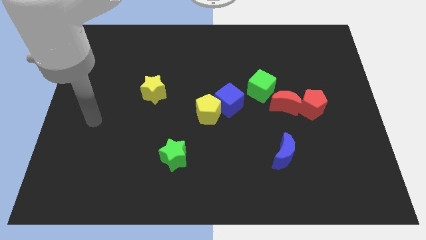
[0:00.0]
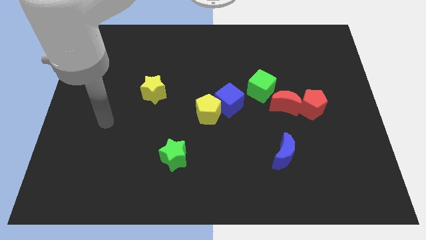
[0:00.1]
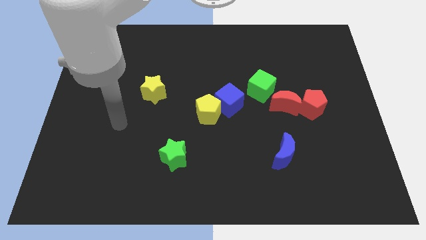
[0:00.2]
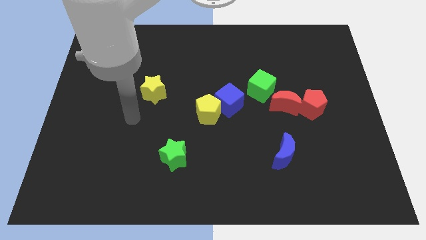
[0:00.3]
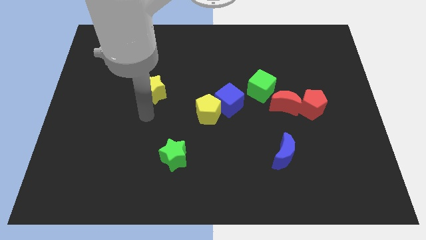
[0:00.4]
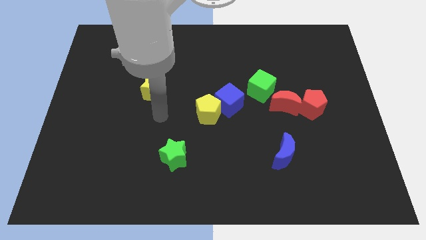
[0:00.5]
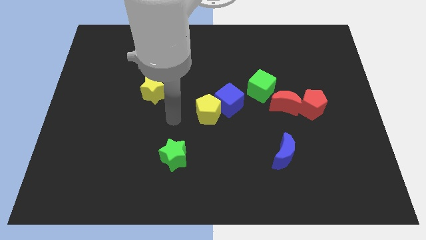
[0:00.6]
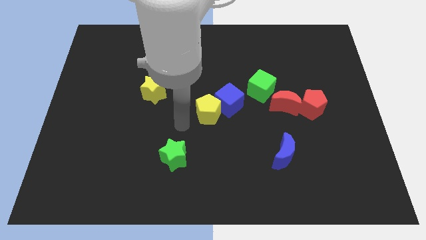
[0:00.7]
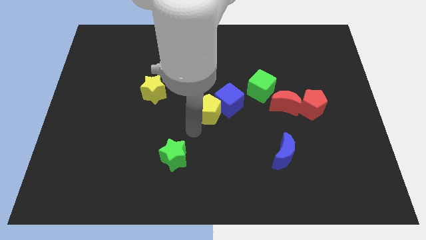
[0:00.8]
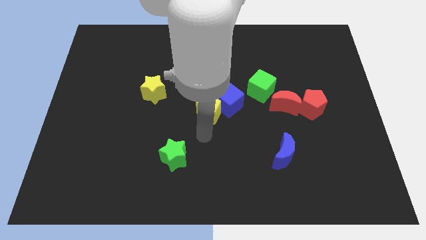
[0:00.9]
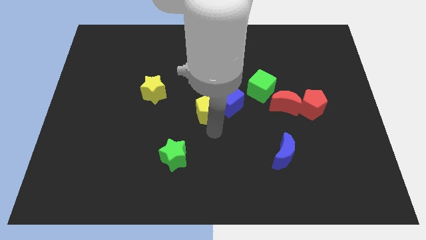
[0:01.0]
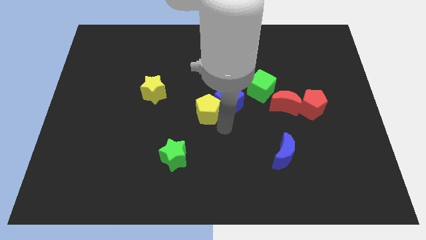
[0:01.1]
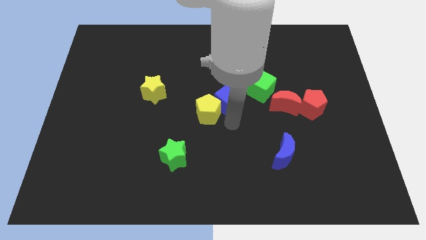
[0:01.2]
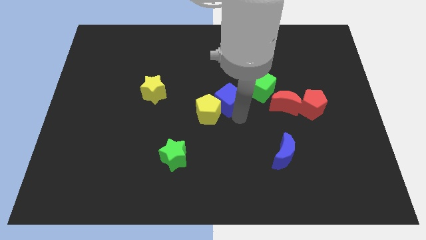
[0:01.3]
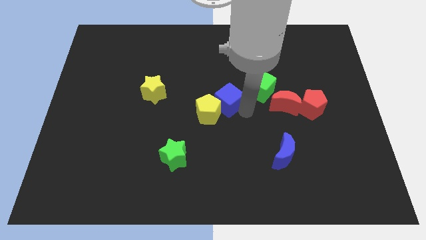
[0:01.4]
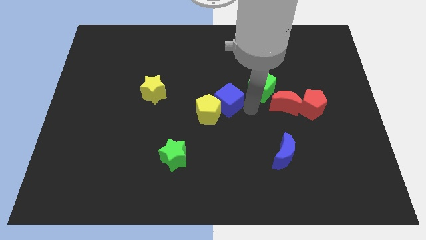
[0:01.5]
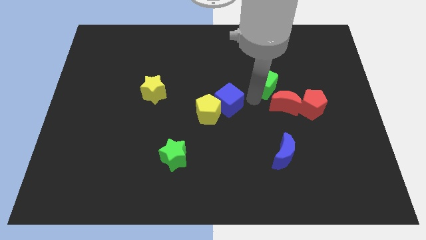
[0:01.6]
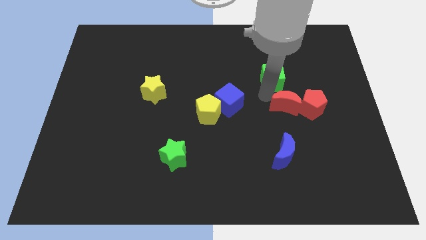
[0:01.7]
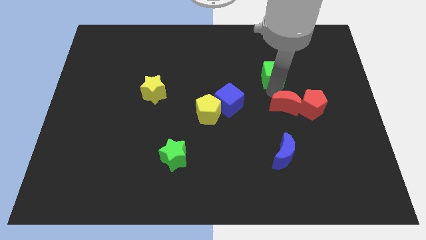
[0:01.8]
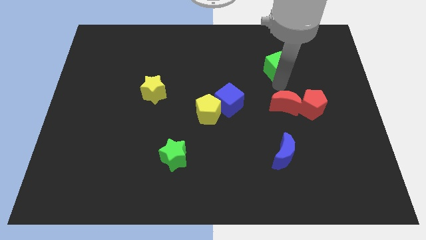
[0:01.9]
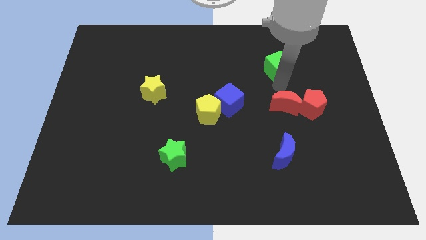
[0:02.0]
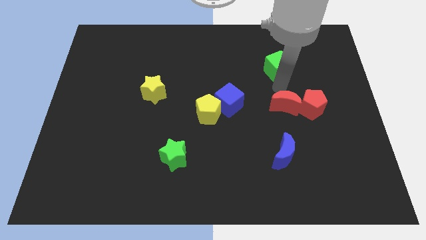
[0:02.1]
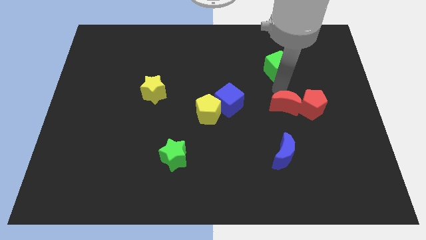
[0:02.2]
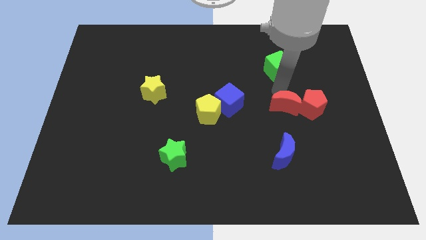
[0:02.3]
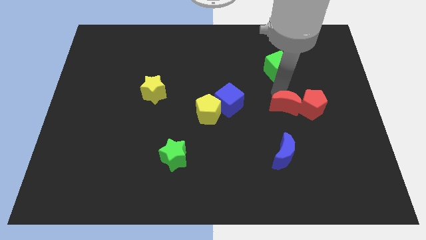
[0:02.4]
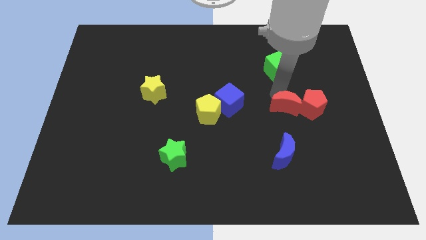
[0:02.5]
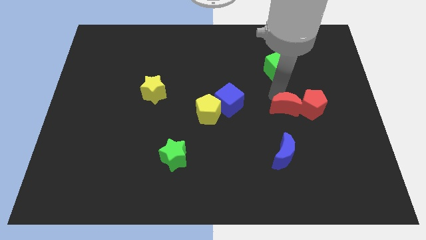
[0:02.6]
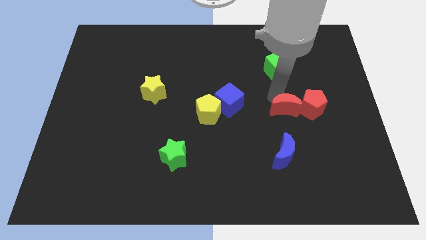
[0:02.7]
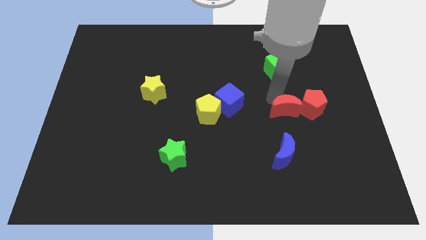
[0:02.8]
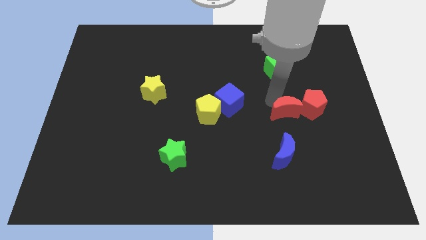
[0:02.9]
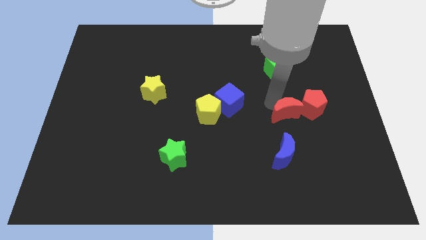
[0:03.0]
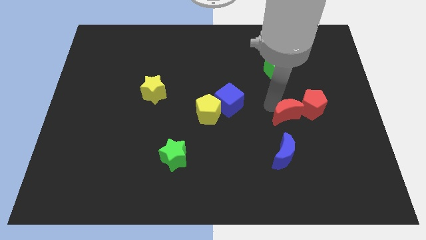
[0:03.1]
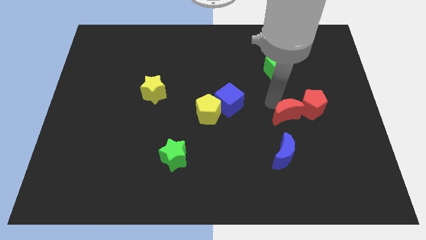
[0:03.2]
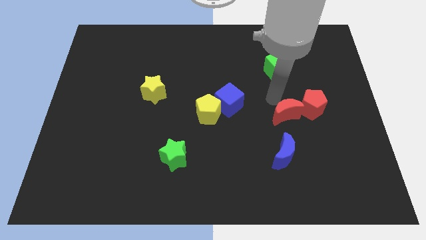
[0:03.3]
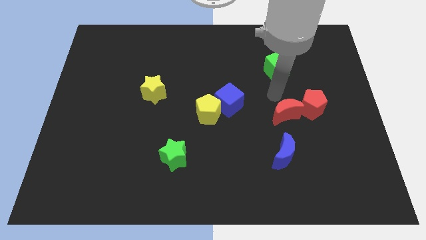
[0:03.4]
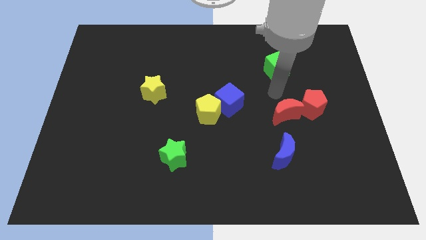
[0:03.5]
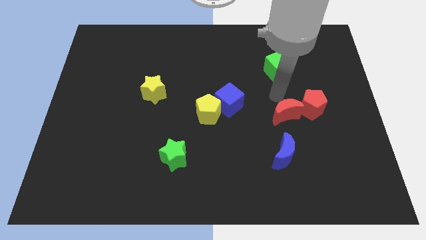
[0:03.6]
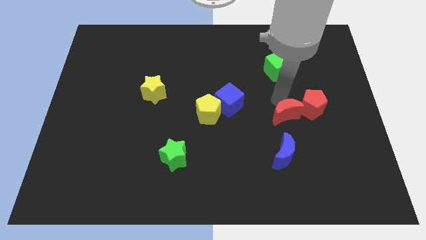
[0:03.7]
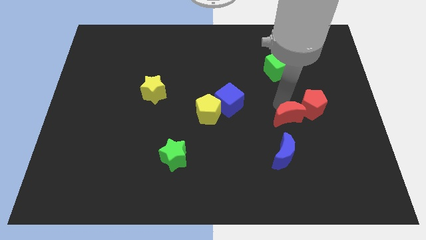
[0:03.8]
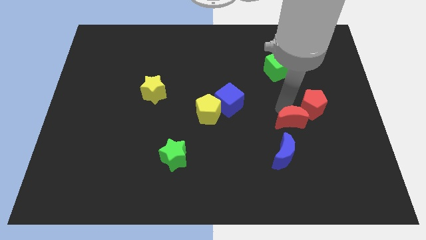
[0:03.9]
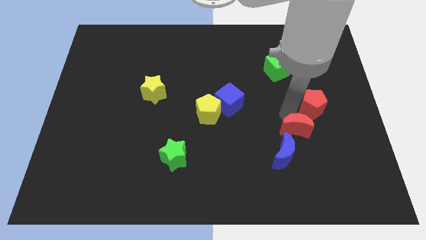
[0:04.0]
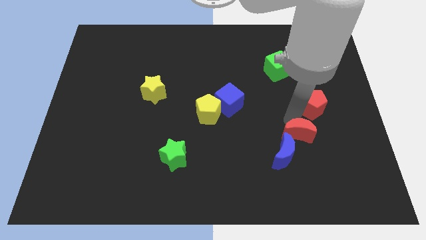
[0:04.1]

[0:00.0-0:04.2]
push the red moon downwards somewhat

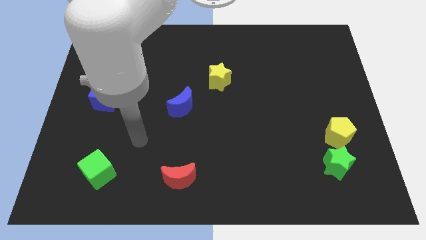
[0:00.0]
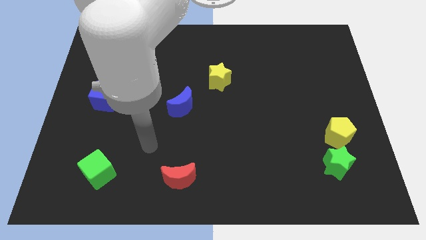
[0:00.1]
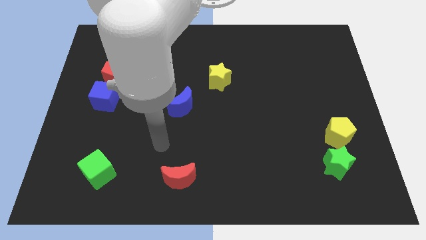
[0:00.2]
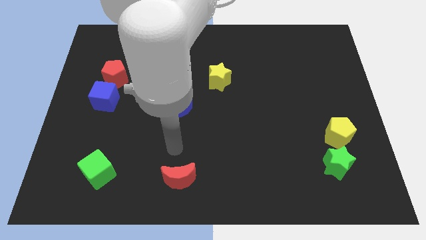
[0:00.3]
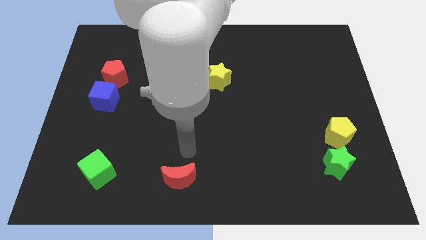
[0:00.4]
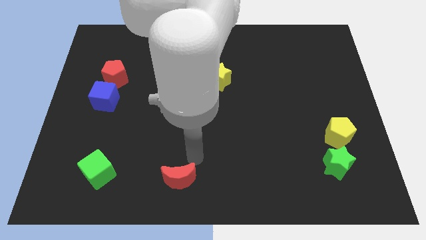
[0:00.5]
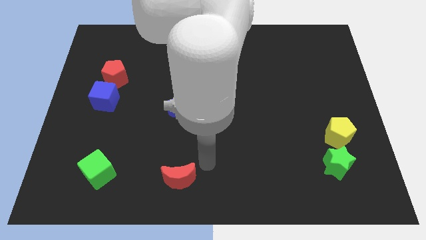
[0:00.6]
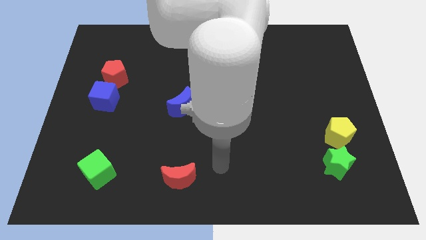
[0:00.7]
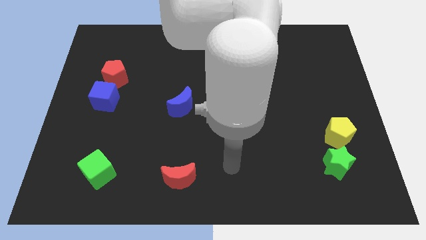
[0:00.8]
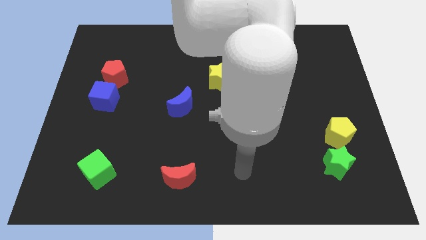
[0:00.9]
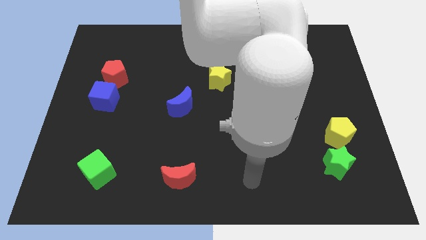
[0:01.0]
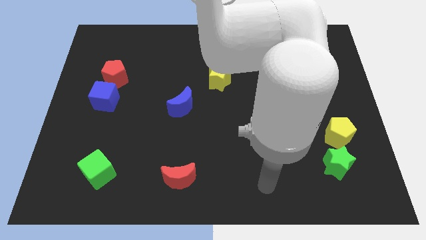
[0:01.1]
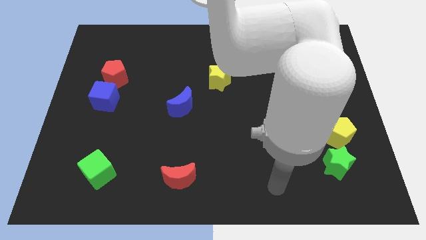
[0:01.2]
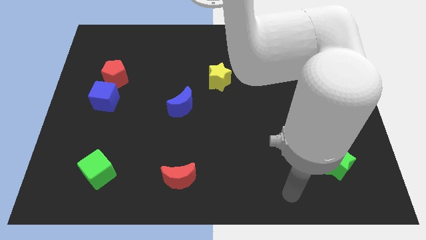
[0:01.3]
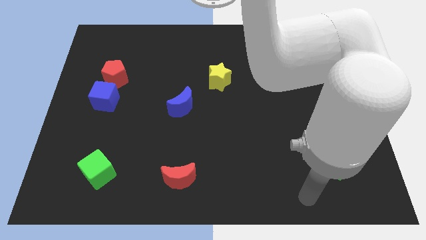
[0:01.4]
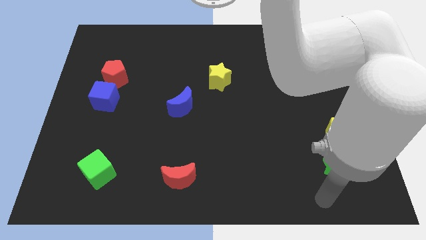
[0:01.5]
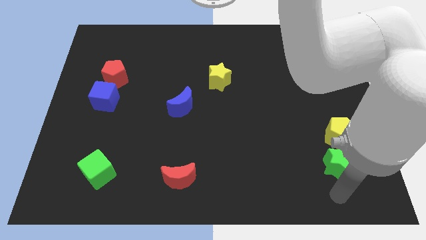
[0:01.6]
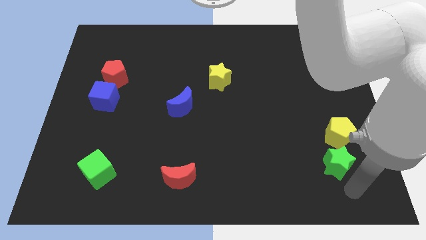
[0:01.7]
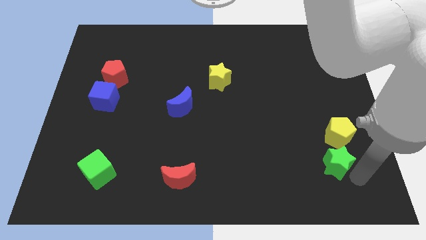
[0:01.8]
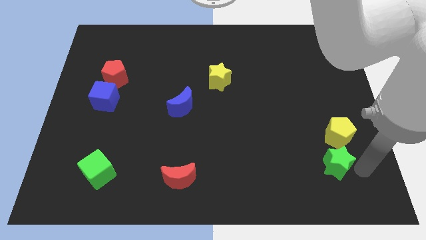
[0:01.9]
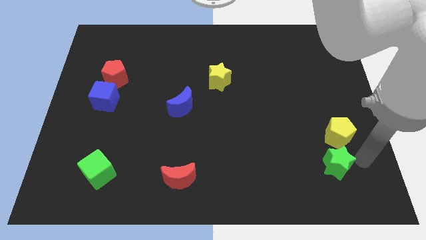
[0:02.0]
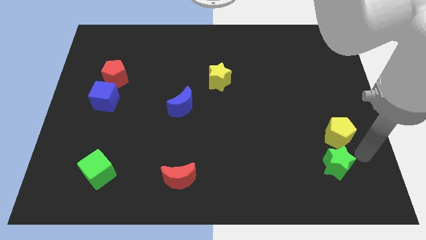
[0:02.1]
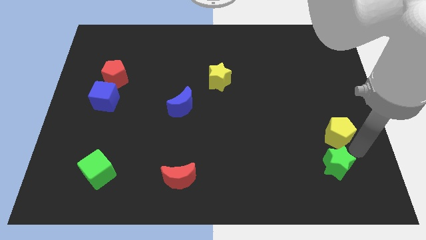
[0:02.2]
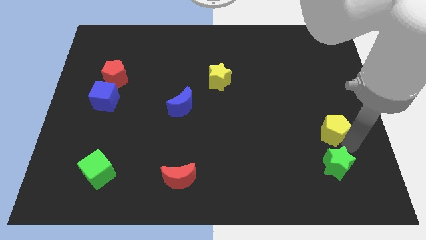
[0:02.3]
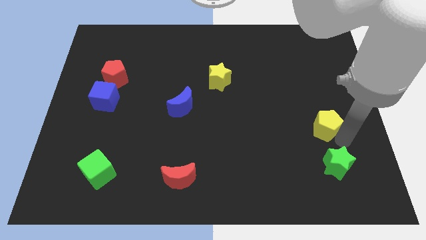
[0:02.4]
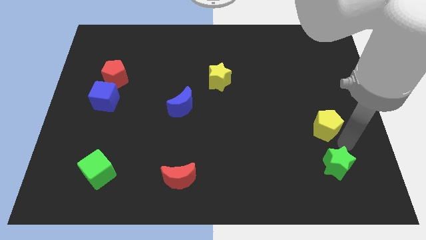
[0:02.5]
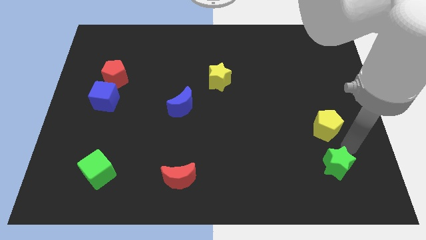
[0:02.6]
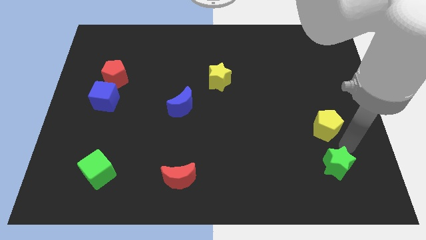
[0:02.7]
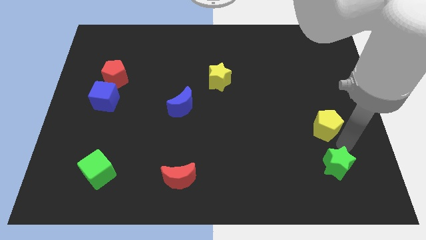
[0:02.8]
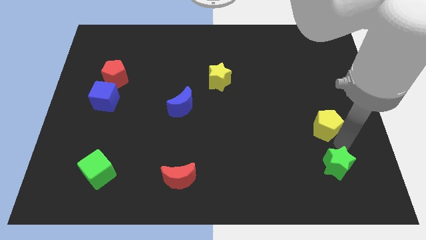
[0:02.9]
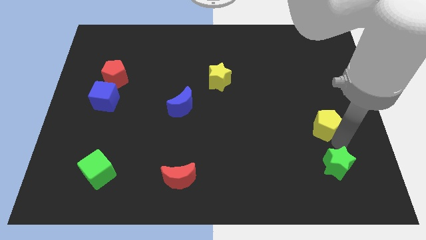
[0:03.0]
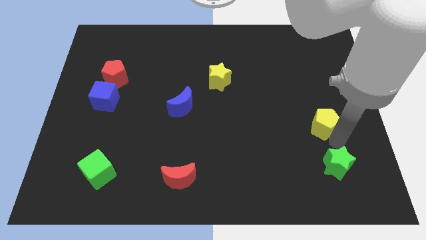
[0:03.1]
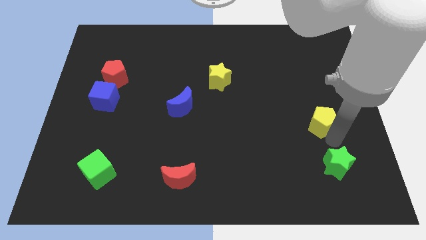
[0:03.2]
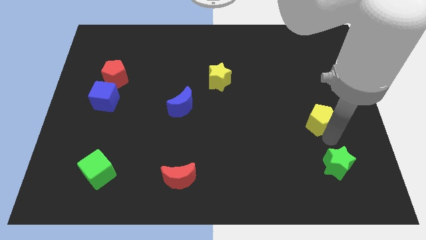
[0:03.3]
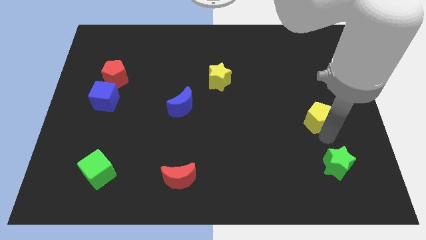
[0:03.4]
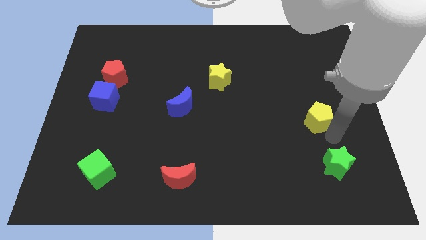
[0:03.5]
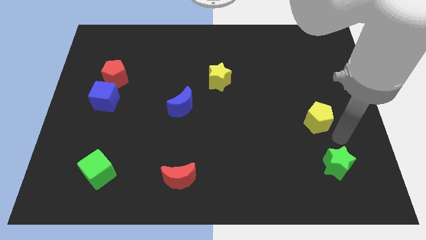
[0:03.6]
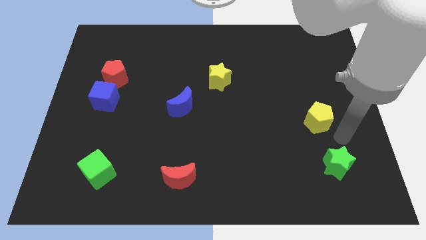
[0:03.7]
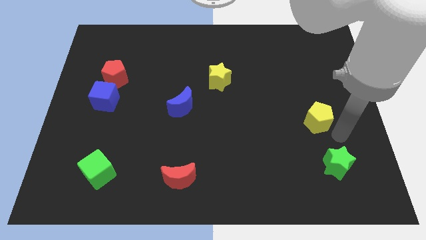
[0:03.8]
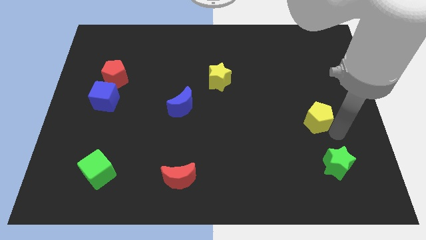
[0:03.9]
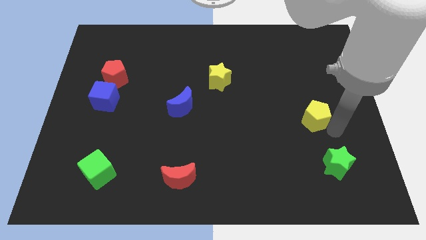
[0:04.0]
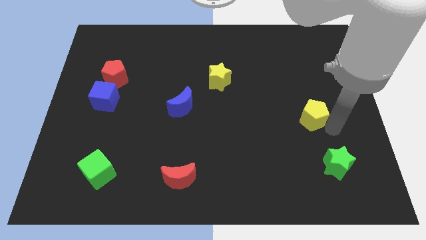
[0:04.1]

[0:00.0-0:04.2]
slightly slide the yellow pentagon upwards and left diagonally
